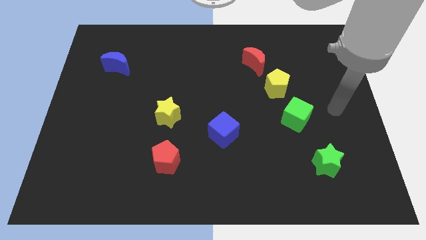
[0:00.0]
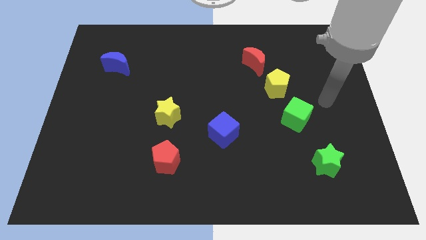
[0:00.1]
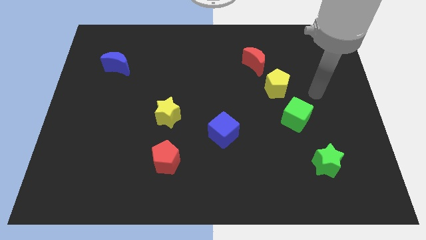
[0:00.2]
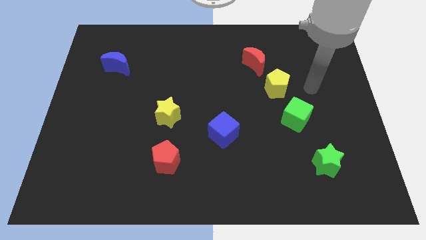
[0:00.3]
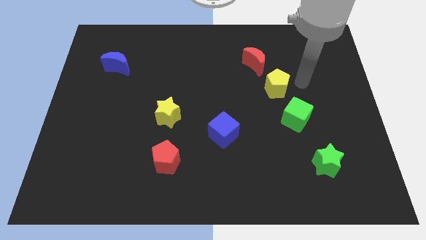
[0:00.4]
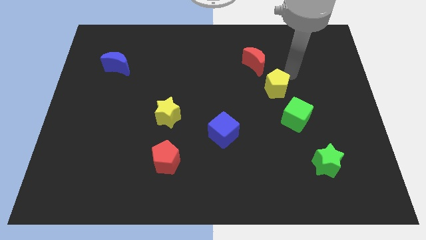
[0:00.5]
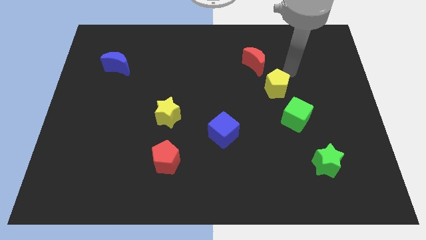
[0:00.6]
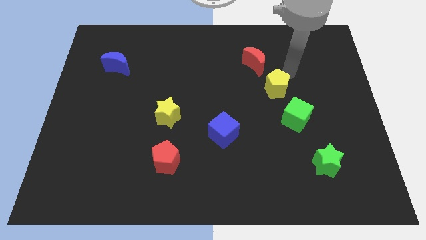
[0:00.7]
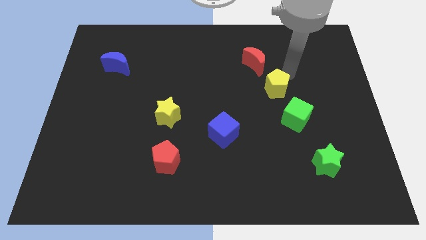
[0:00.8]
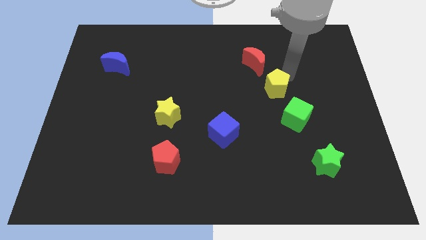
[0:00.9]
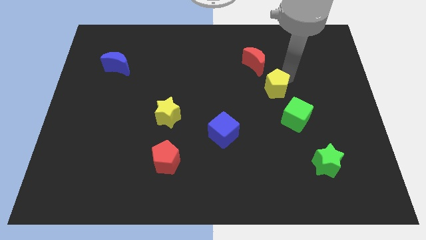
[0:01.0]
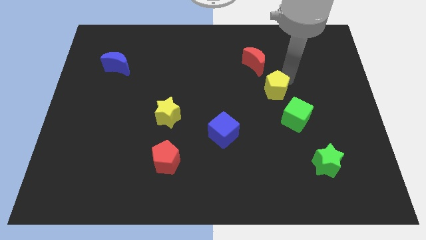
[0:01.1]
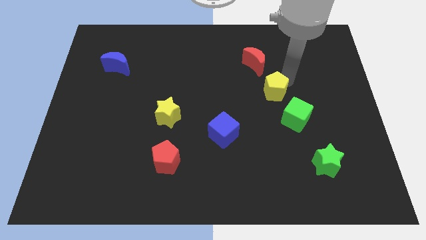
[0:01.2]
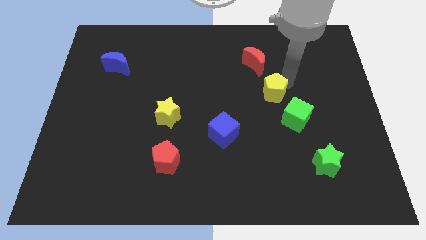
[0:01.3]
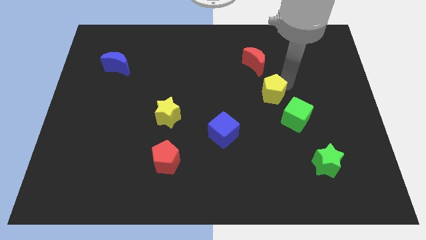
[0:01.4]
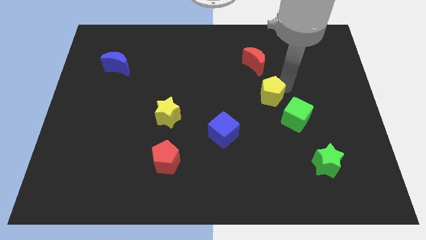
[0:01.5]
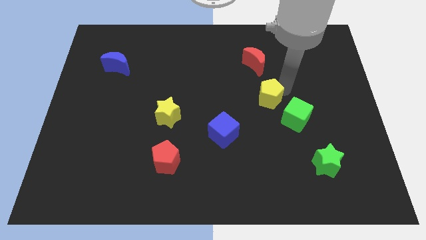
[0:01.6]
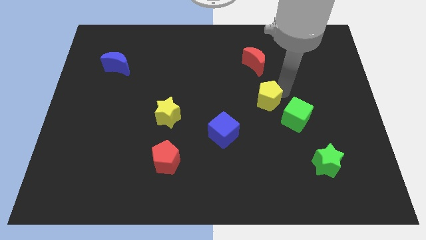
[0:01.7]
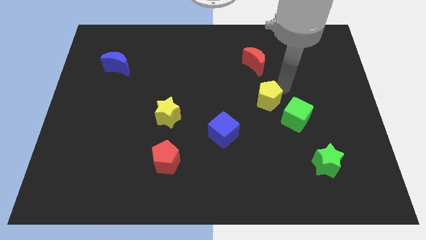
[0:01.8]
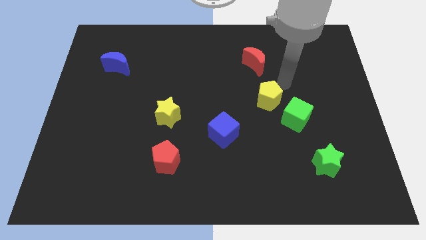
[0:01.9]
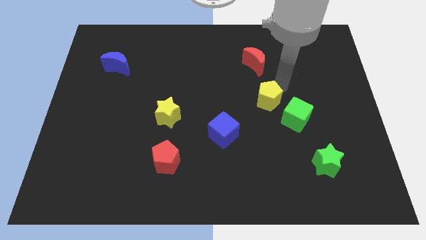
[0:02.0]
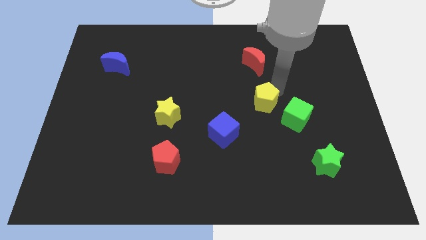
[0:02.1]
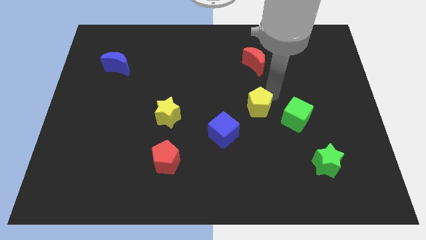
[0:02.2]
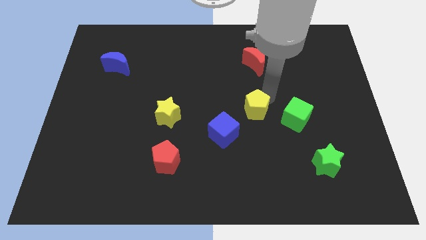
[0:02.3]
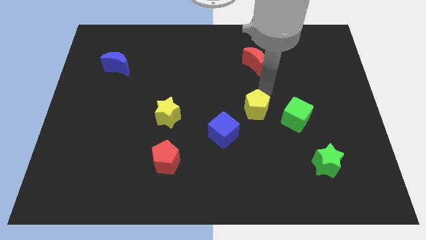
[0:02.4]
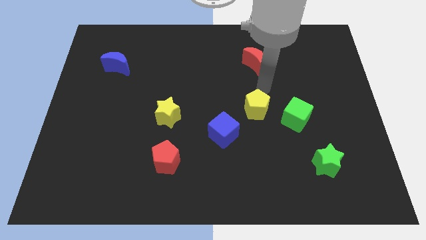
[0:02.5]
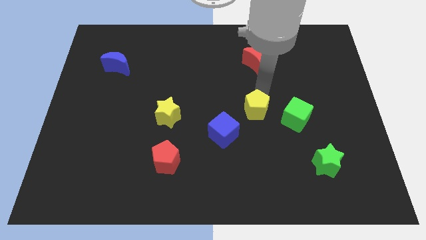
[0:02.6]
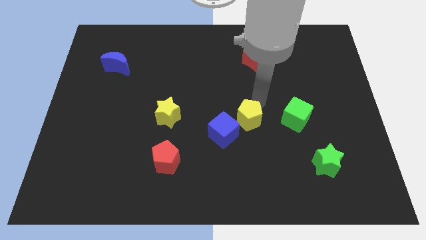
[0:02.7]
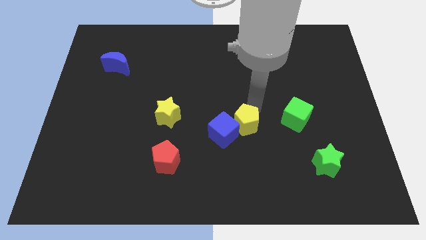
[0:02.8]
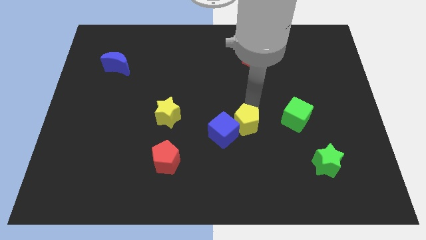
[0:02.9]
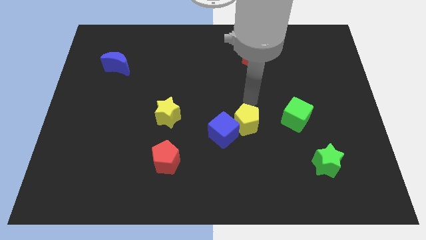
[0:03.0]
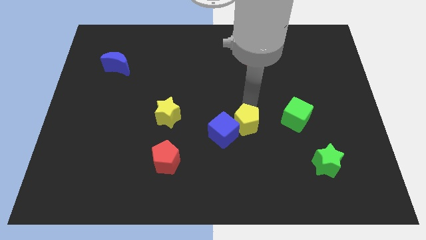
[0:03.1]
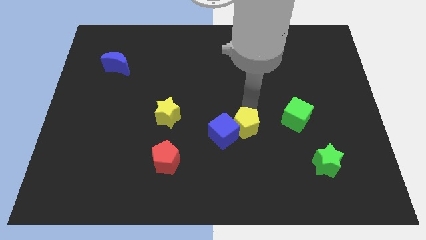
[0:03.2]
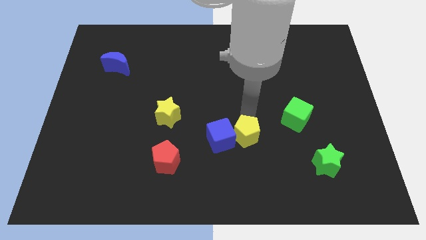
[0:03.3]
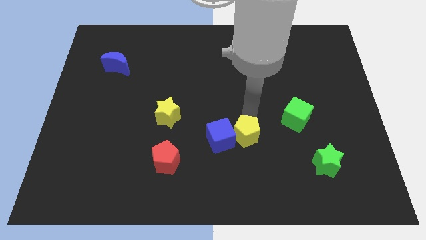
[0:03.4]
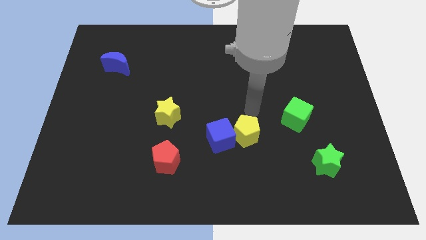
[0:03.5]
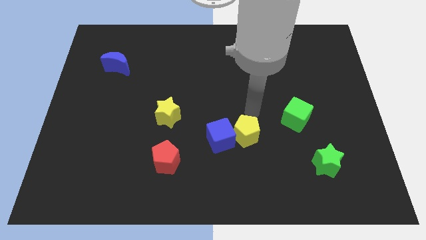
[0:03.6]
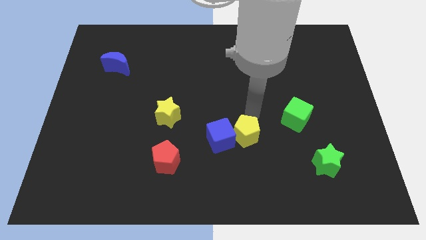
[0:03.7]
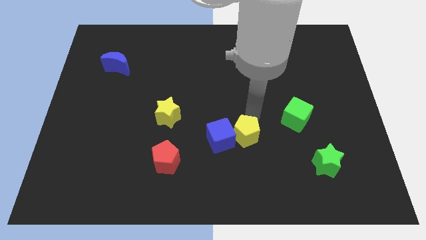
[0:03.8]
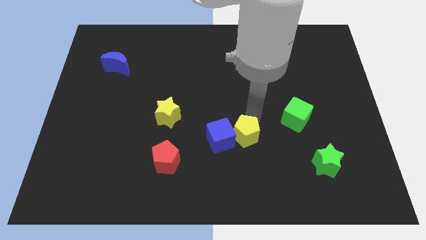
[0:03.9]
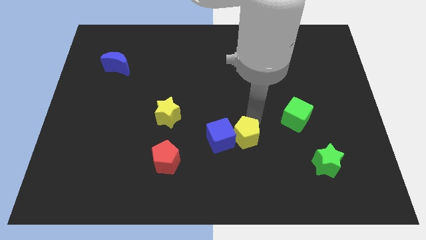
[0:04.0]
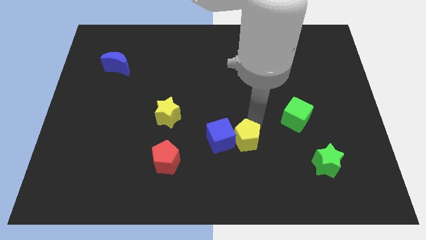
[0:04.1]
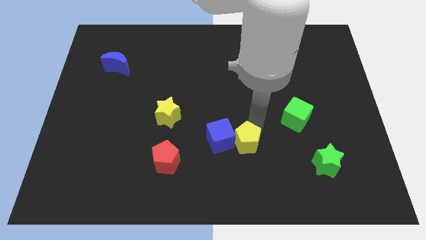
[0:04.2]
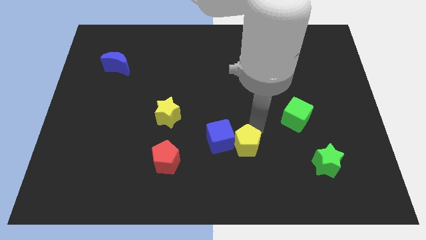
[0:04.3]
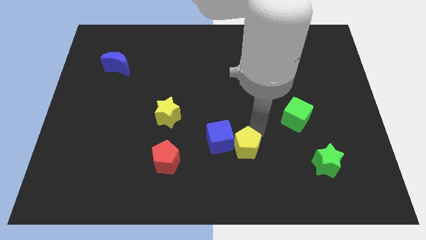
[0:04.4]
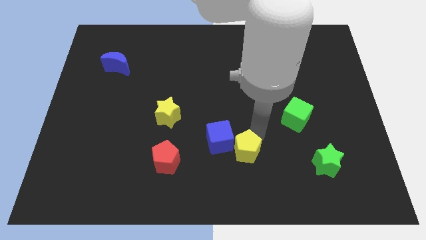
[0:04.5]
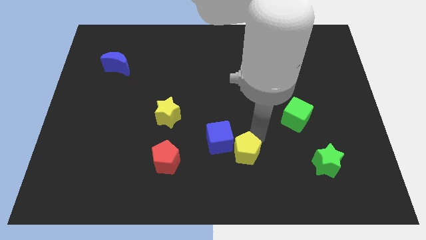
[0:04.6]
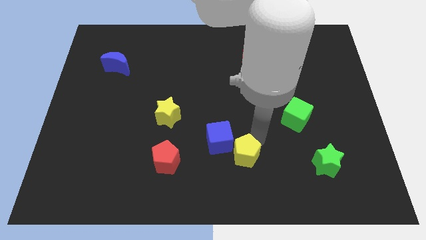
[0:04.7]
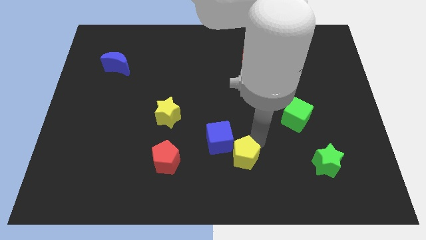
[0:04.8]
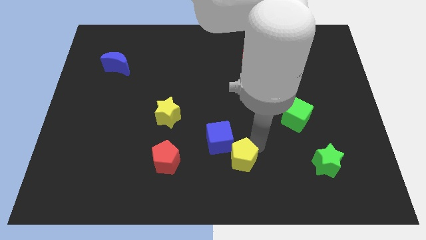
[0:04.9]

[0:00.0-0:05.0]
slide the yellow pentagon to the bottom side

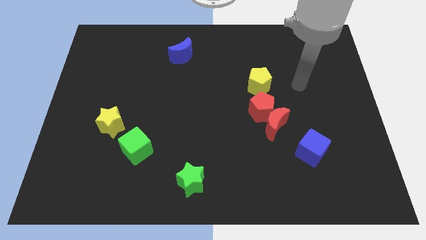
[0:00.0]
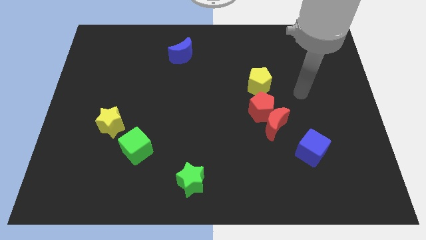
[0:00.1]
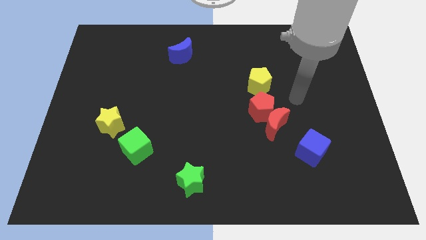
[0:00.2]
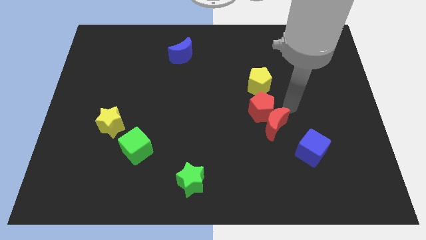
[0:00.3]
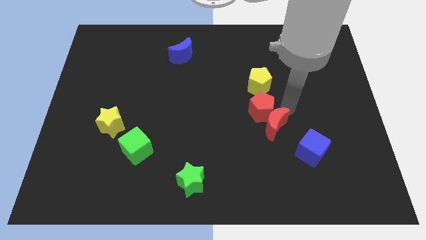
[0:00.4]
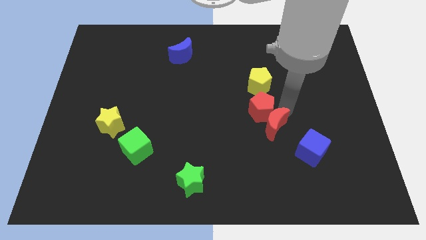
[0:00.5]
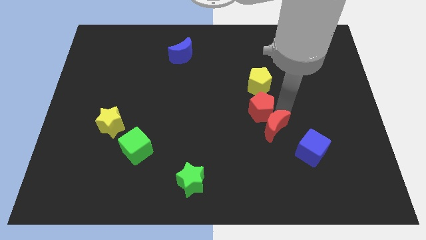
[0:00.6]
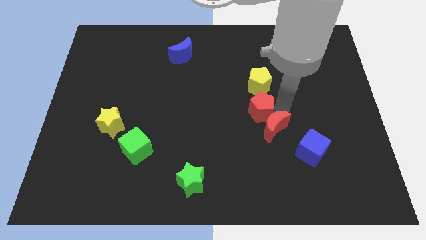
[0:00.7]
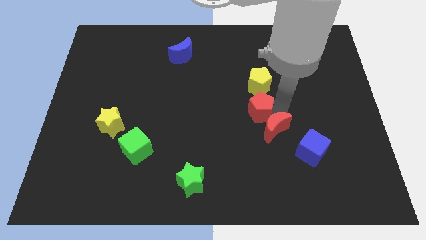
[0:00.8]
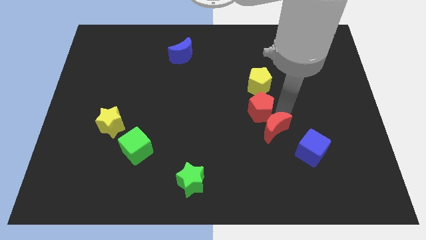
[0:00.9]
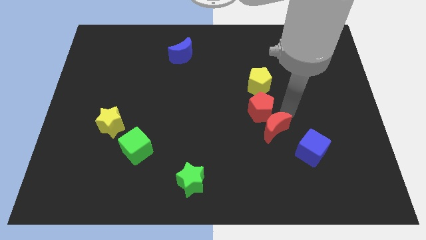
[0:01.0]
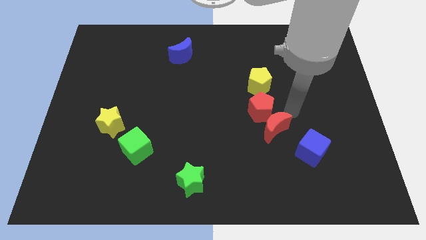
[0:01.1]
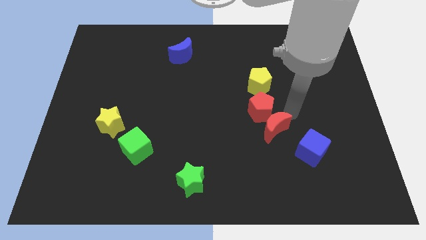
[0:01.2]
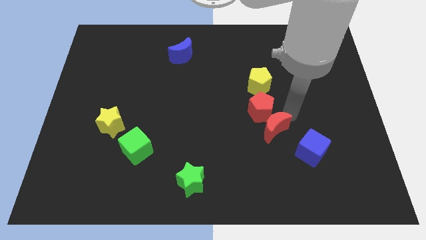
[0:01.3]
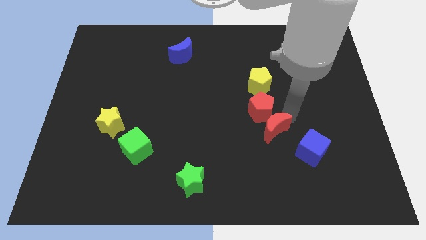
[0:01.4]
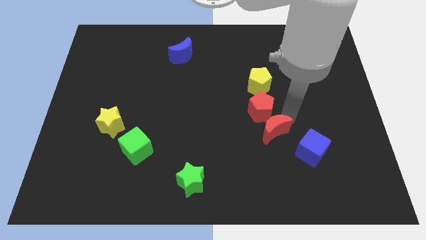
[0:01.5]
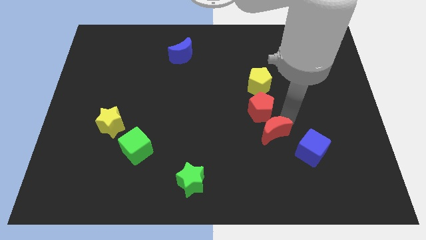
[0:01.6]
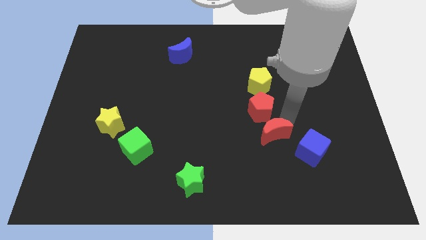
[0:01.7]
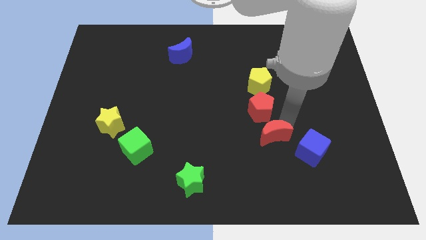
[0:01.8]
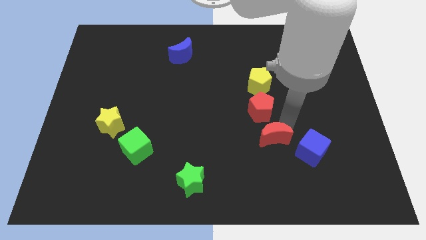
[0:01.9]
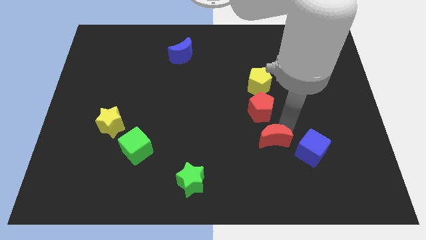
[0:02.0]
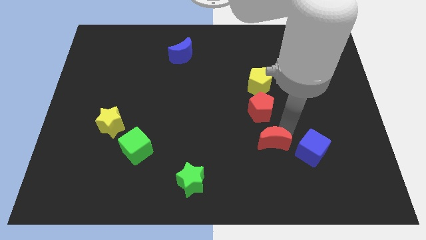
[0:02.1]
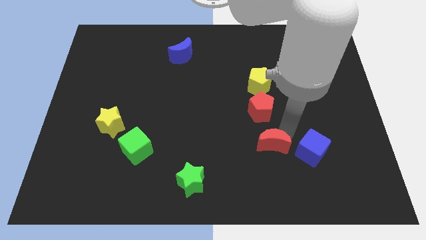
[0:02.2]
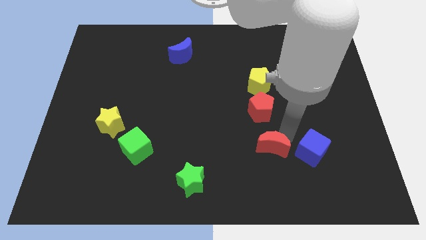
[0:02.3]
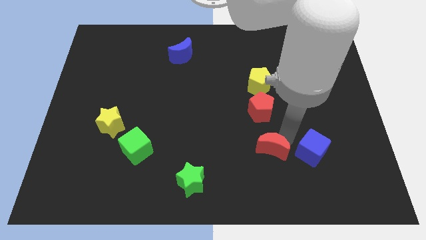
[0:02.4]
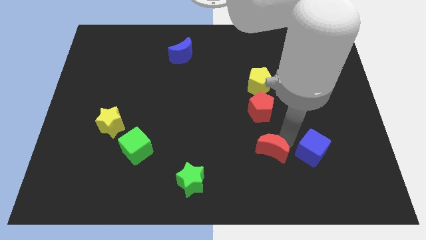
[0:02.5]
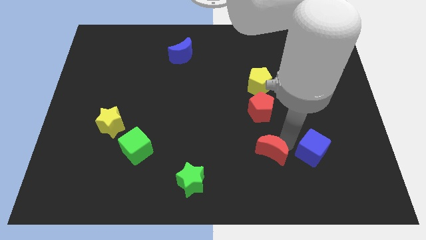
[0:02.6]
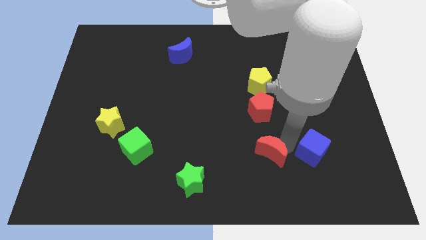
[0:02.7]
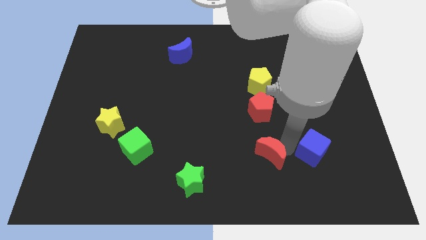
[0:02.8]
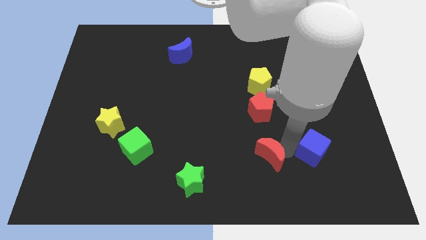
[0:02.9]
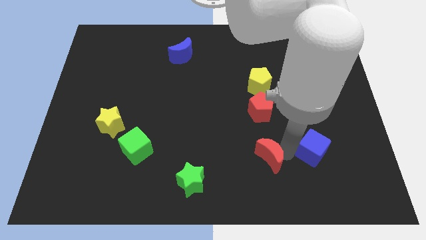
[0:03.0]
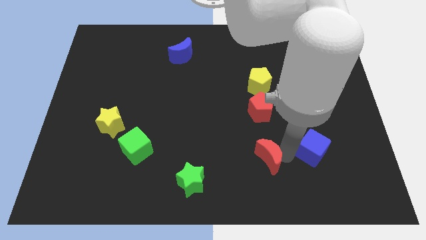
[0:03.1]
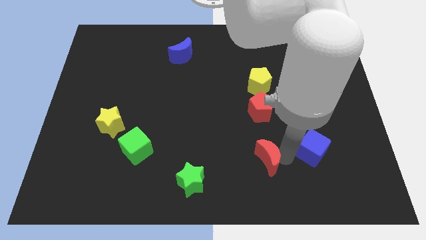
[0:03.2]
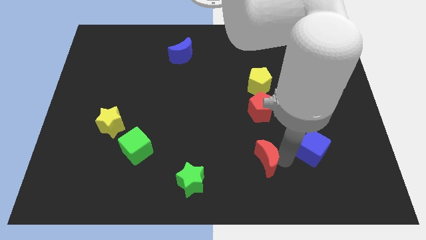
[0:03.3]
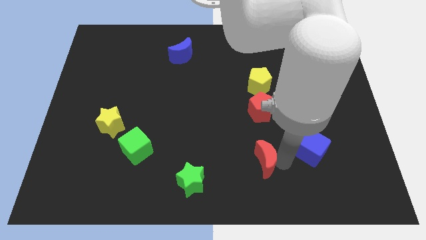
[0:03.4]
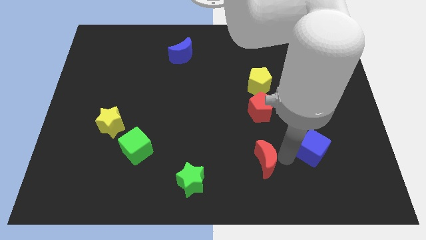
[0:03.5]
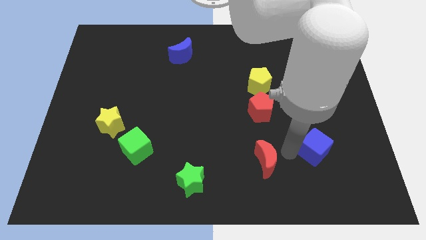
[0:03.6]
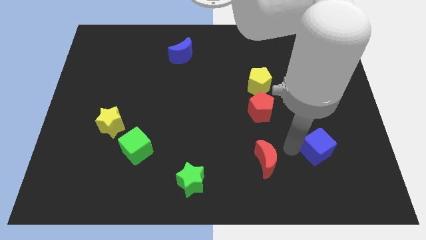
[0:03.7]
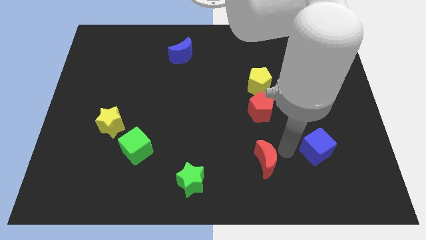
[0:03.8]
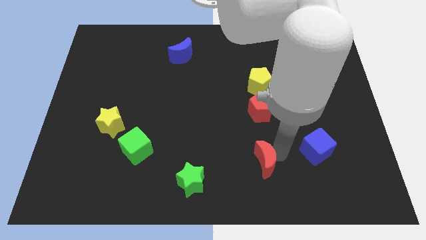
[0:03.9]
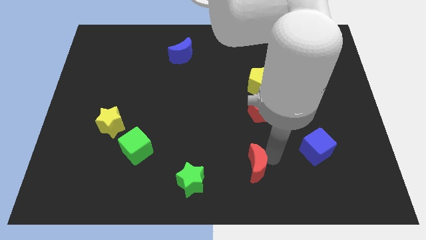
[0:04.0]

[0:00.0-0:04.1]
push the red moon to the bottom side
